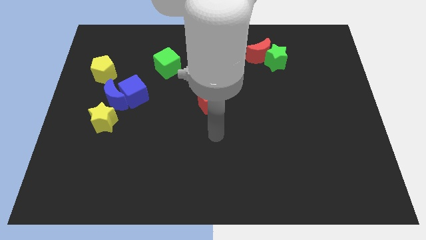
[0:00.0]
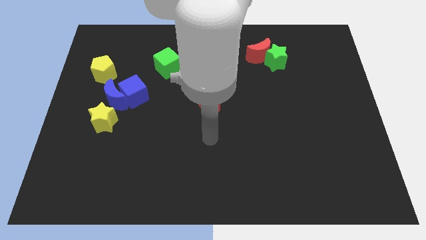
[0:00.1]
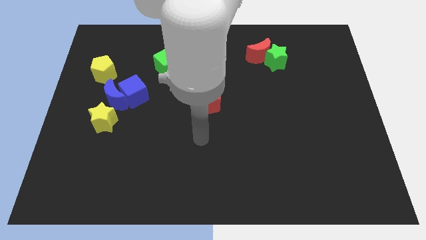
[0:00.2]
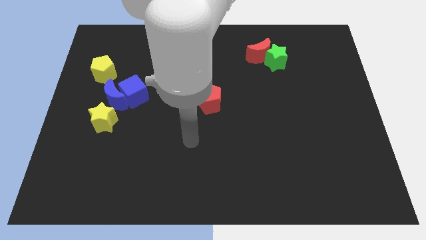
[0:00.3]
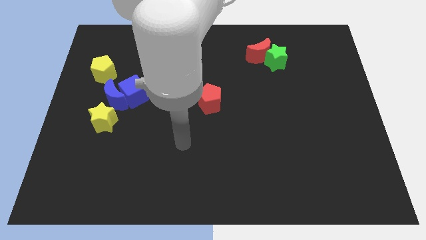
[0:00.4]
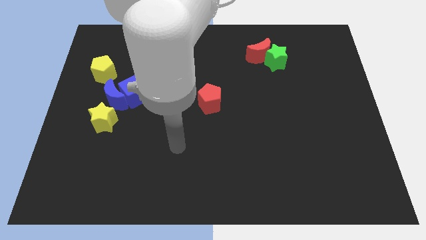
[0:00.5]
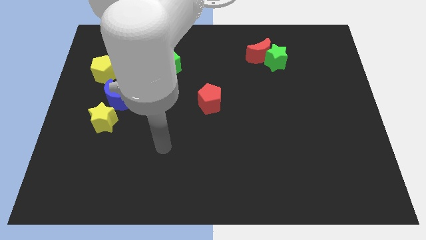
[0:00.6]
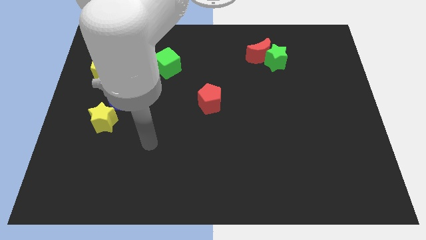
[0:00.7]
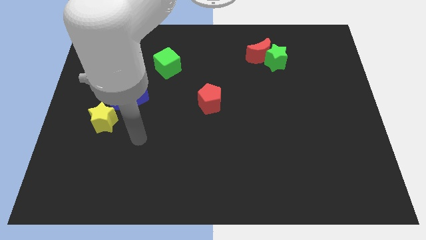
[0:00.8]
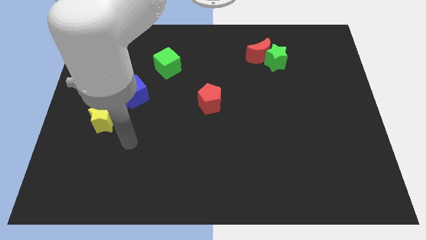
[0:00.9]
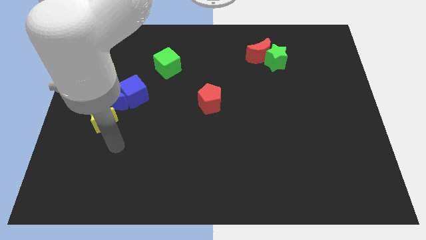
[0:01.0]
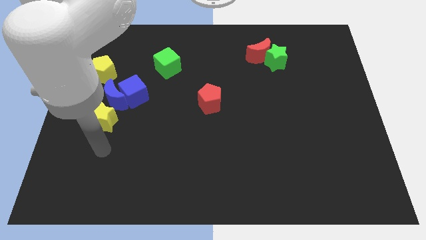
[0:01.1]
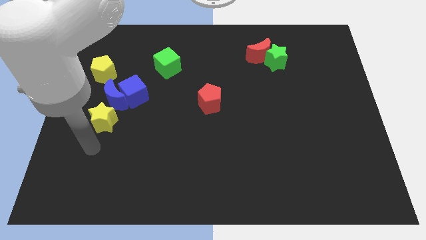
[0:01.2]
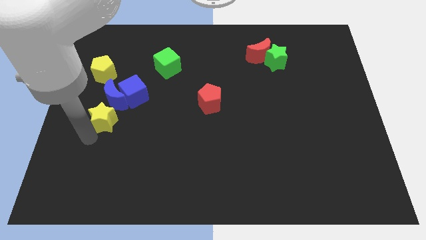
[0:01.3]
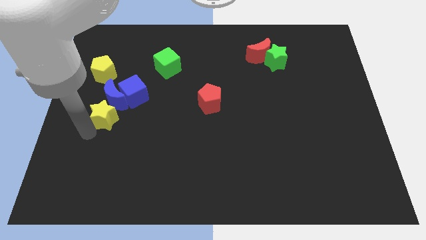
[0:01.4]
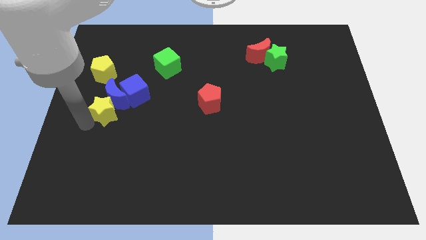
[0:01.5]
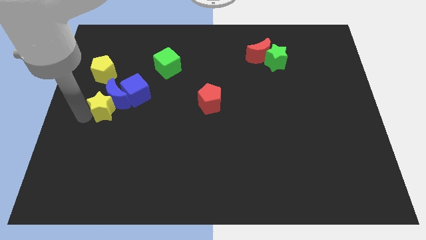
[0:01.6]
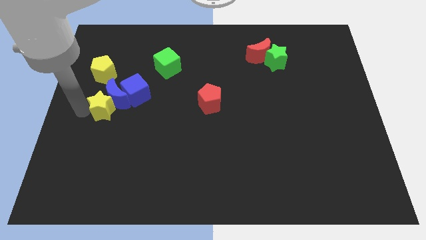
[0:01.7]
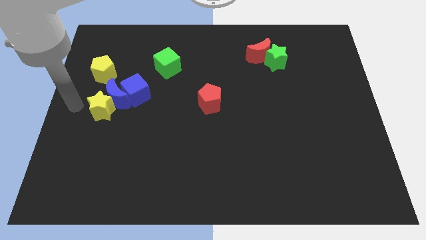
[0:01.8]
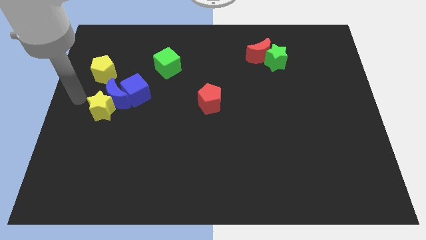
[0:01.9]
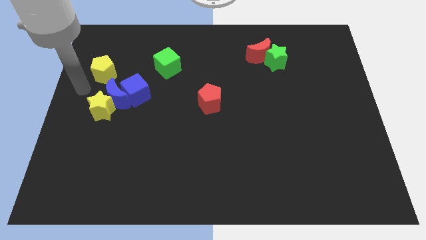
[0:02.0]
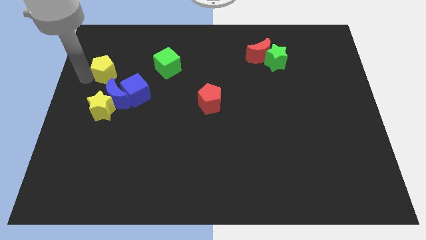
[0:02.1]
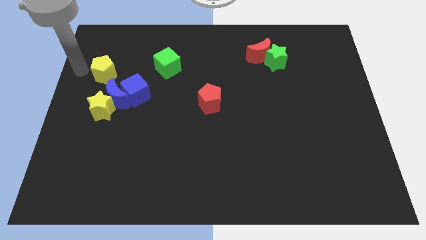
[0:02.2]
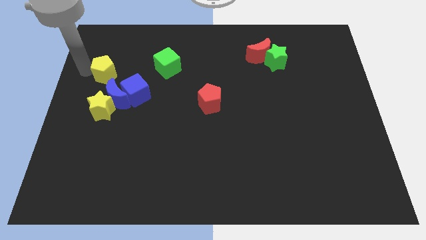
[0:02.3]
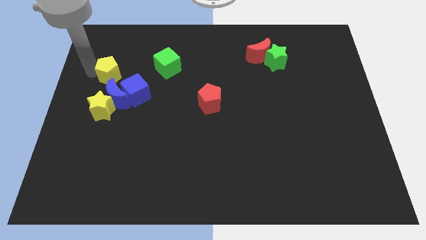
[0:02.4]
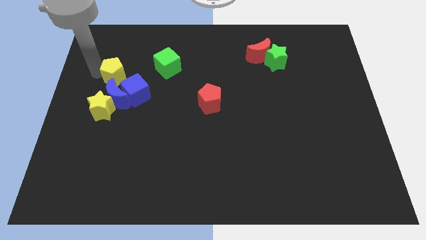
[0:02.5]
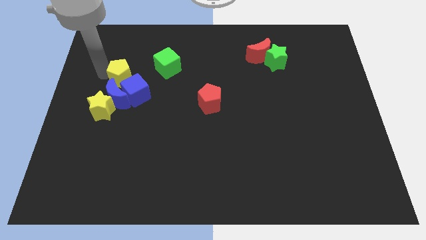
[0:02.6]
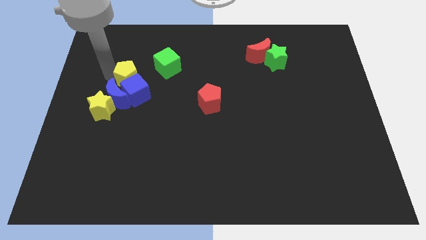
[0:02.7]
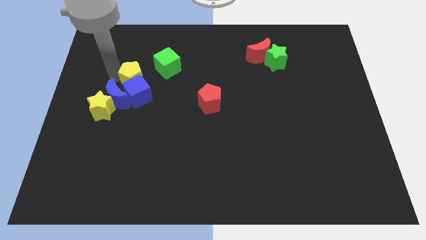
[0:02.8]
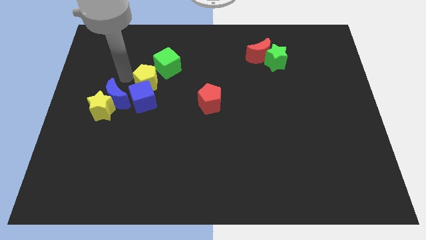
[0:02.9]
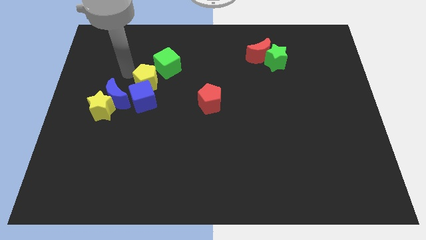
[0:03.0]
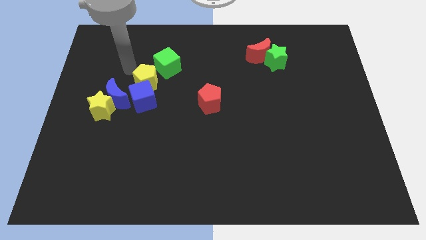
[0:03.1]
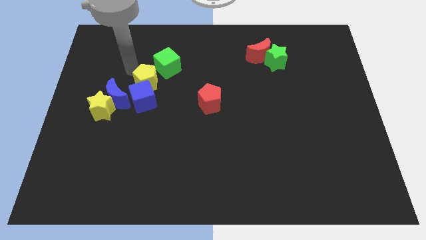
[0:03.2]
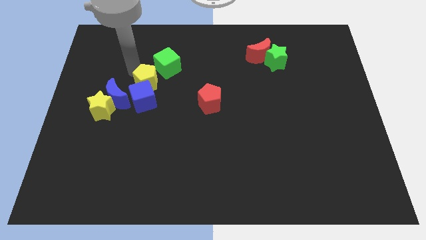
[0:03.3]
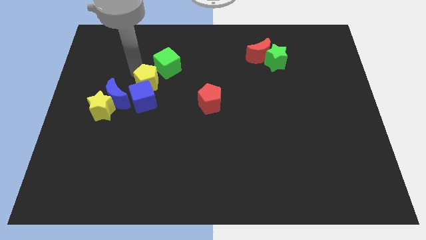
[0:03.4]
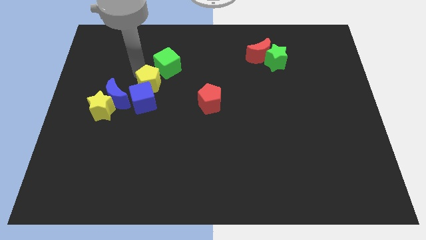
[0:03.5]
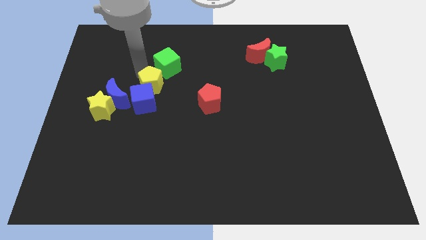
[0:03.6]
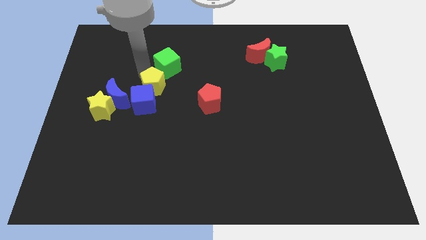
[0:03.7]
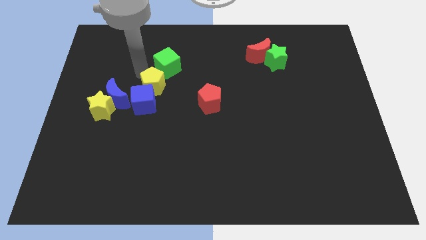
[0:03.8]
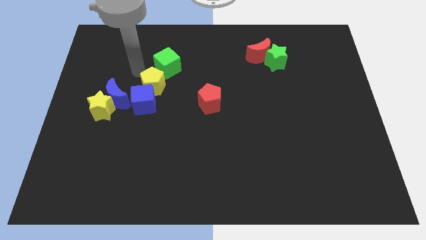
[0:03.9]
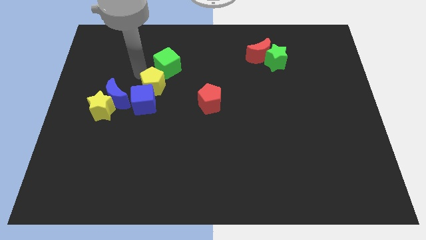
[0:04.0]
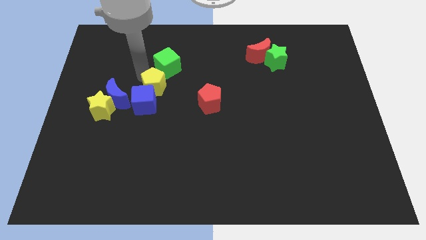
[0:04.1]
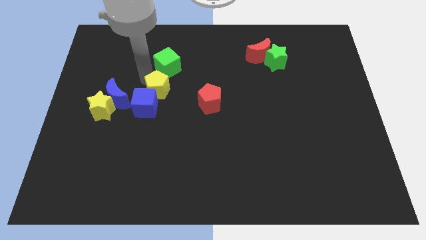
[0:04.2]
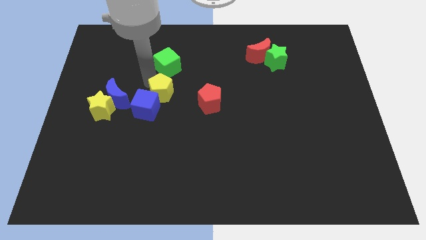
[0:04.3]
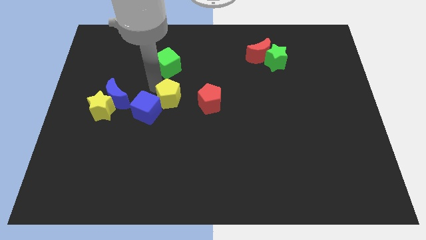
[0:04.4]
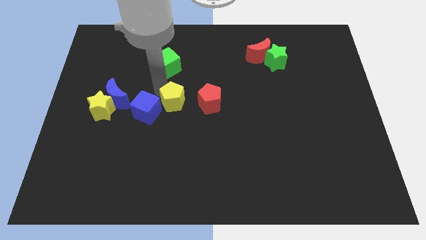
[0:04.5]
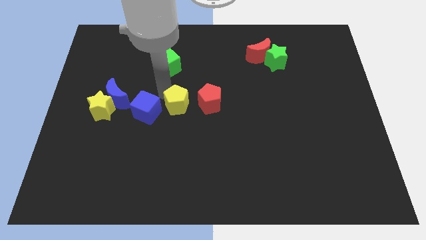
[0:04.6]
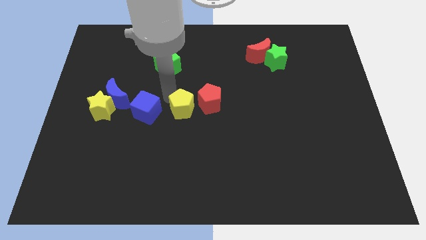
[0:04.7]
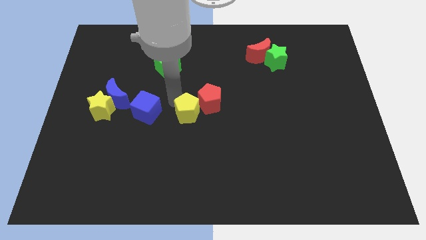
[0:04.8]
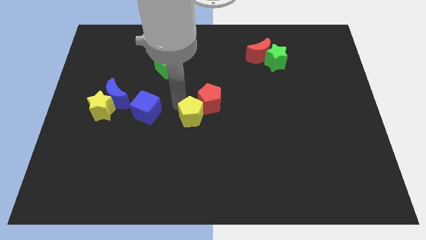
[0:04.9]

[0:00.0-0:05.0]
move the yellow pentagon to the bottom side of the red pentagon

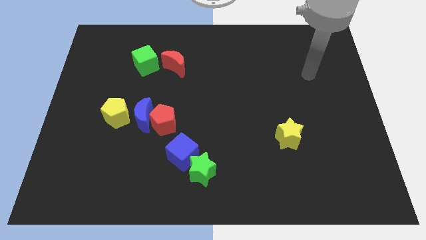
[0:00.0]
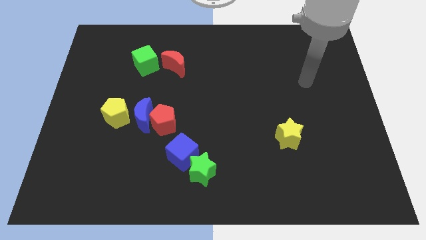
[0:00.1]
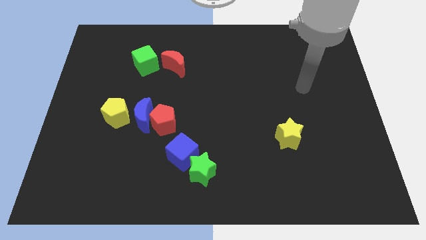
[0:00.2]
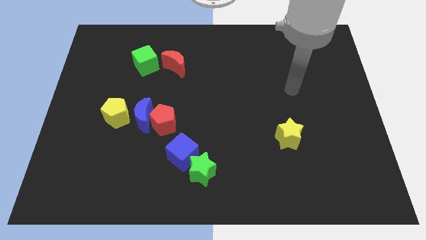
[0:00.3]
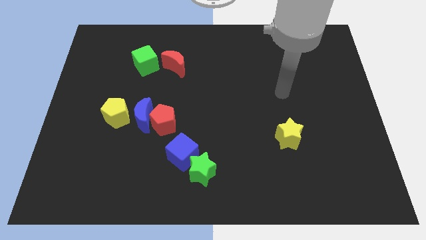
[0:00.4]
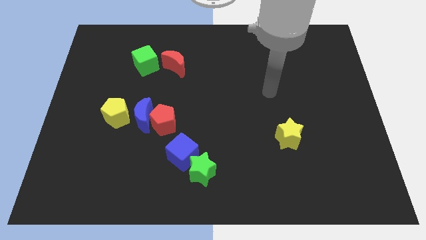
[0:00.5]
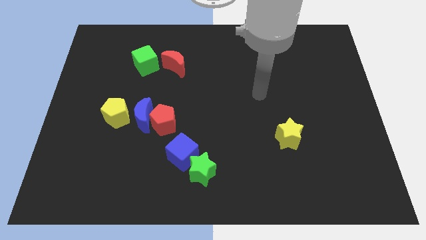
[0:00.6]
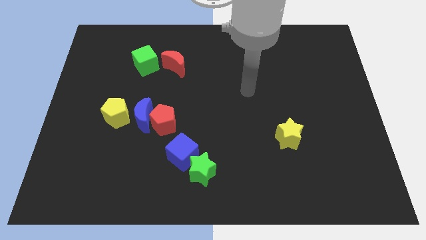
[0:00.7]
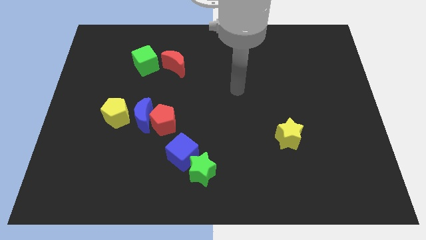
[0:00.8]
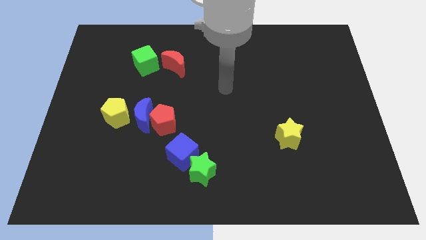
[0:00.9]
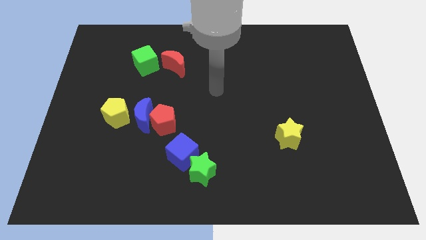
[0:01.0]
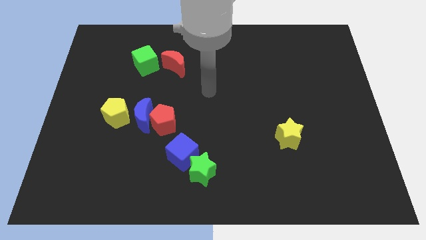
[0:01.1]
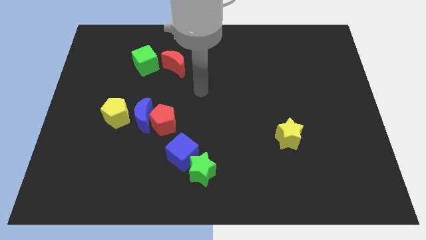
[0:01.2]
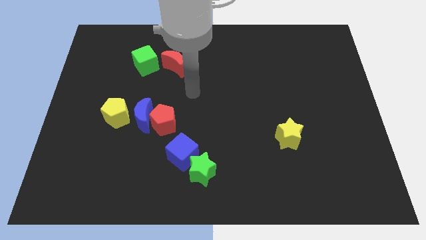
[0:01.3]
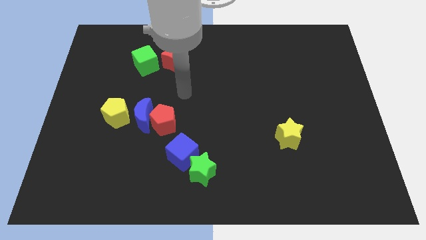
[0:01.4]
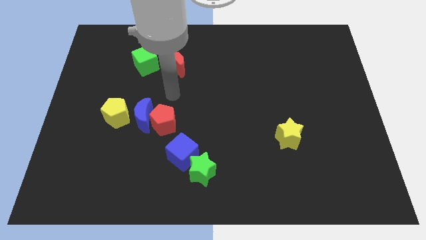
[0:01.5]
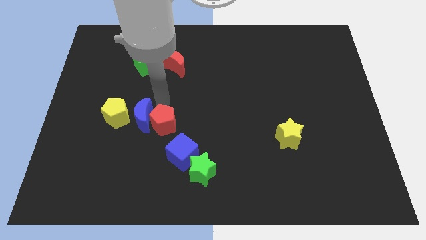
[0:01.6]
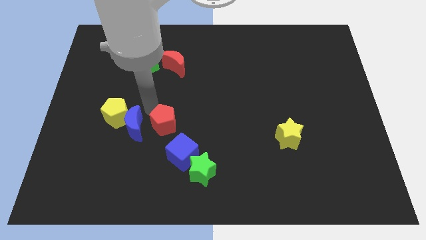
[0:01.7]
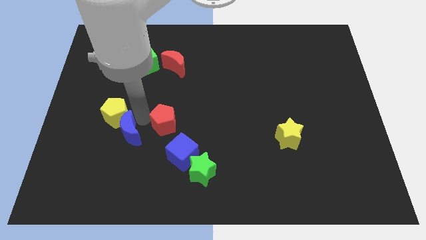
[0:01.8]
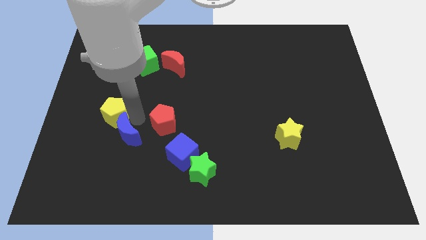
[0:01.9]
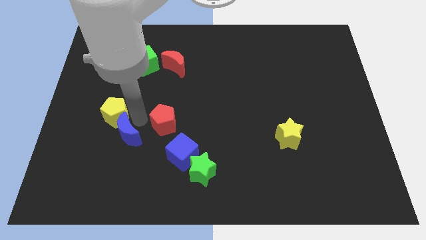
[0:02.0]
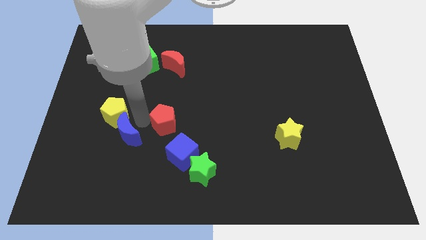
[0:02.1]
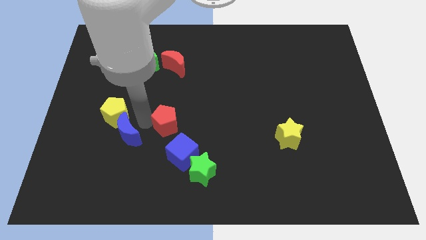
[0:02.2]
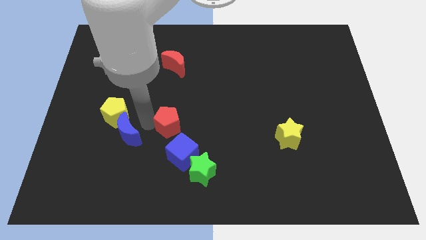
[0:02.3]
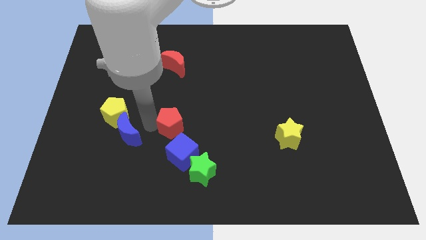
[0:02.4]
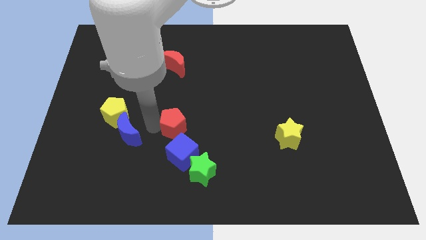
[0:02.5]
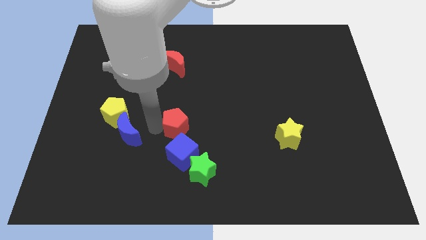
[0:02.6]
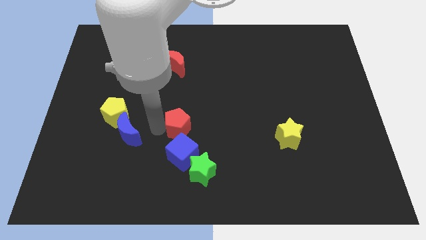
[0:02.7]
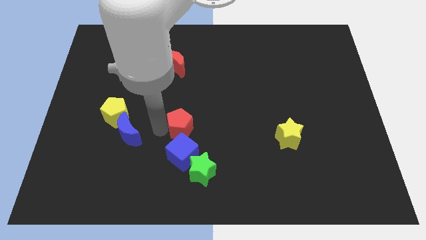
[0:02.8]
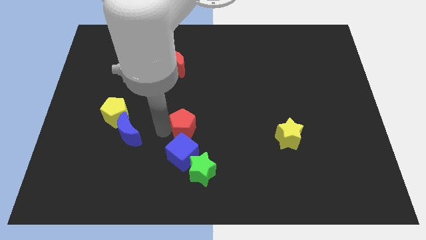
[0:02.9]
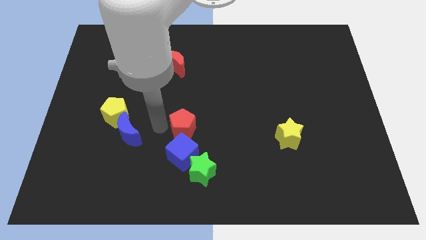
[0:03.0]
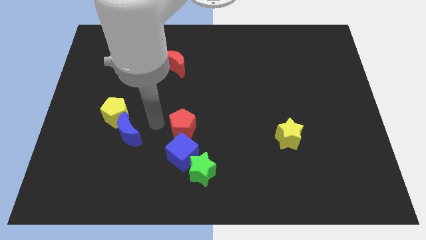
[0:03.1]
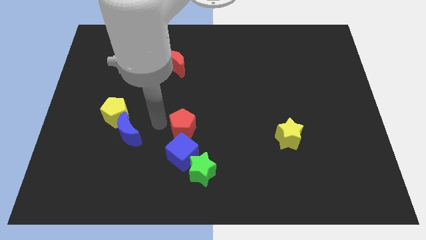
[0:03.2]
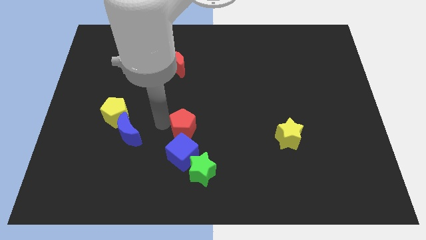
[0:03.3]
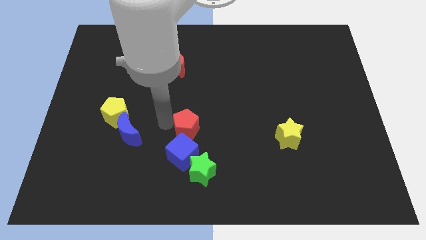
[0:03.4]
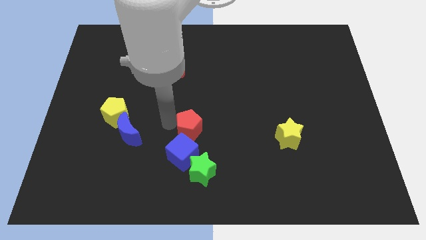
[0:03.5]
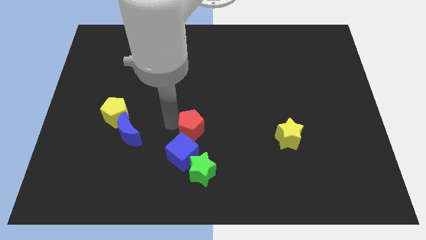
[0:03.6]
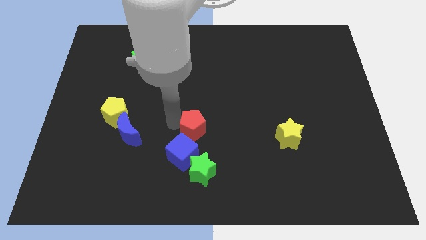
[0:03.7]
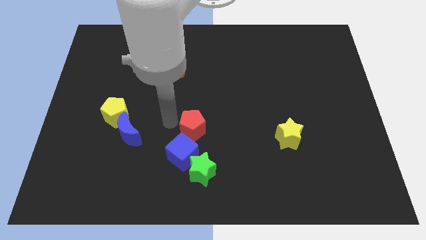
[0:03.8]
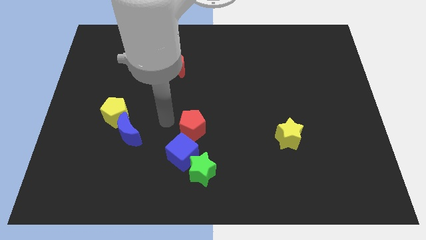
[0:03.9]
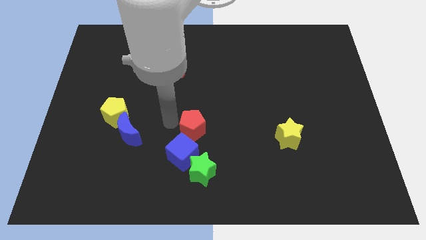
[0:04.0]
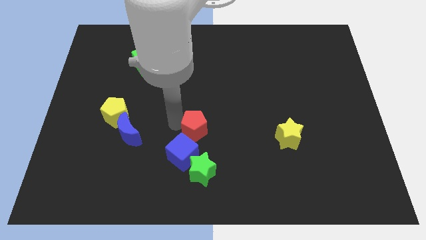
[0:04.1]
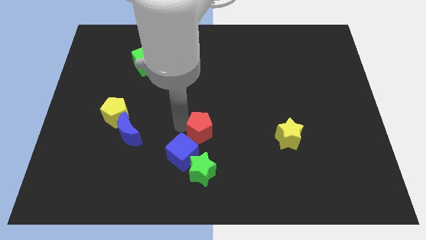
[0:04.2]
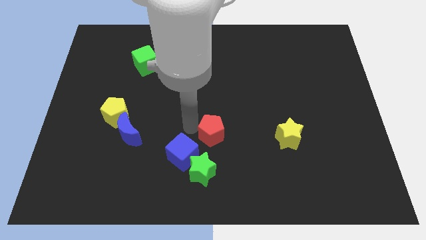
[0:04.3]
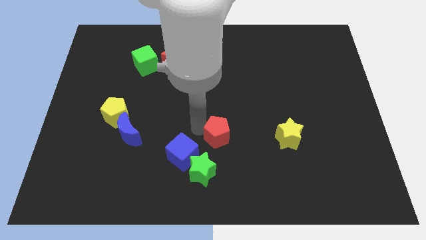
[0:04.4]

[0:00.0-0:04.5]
put the red pentagon to the top right of the green star
